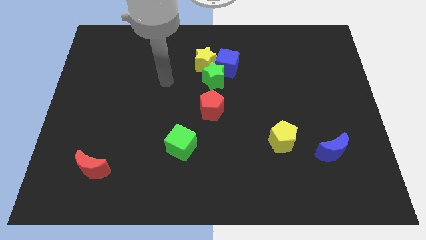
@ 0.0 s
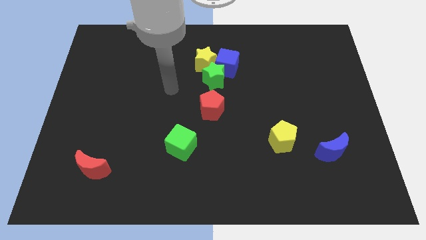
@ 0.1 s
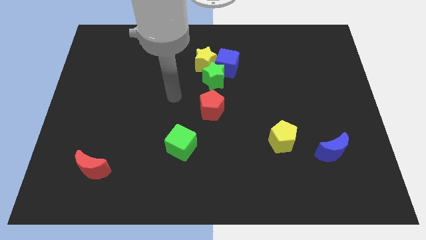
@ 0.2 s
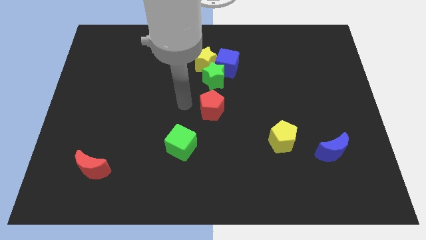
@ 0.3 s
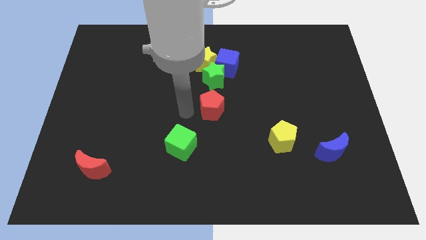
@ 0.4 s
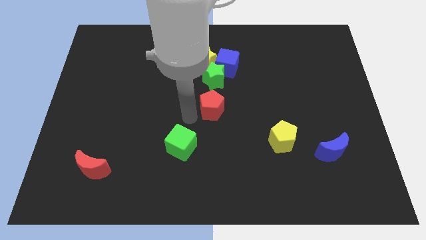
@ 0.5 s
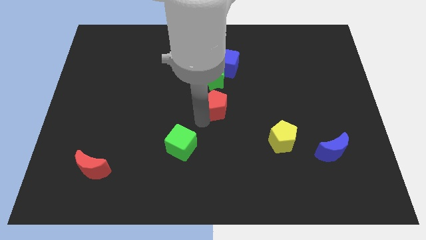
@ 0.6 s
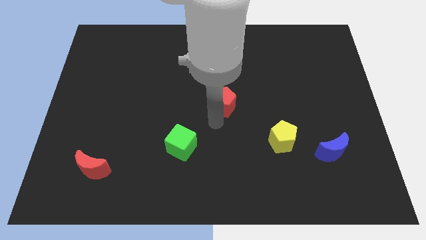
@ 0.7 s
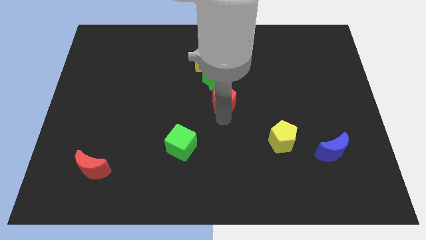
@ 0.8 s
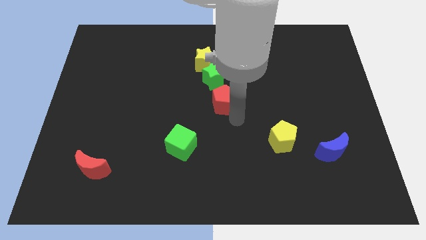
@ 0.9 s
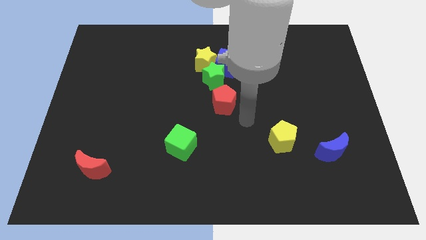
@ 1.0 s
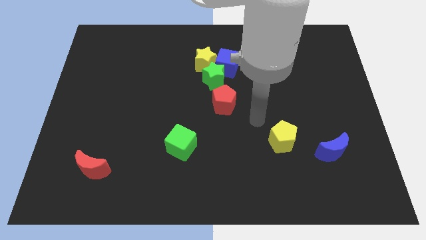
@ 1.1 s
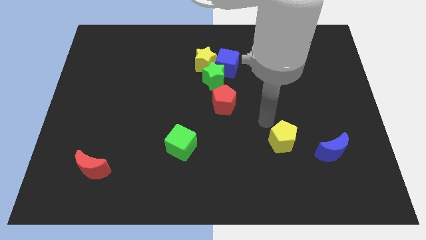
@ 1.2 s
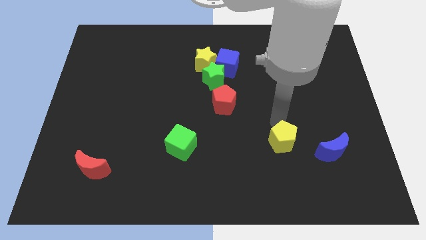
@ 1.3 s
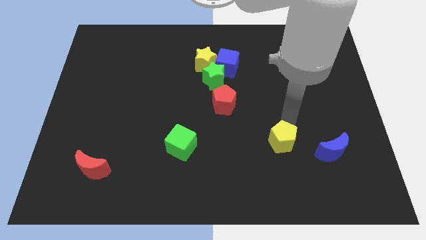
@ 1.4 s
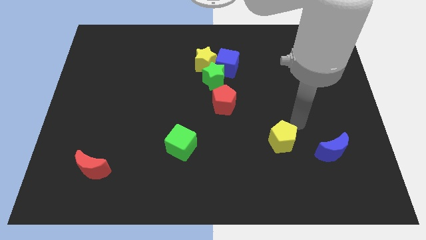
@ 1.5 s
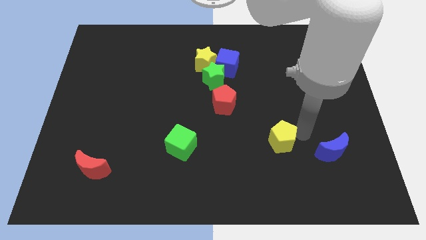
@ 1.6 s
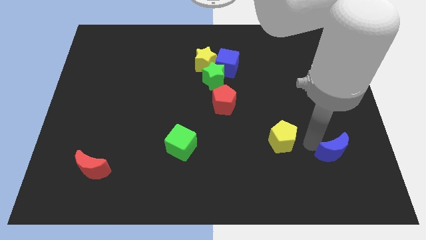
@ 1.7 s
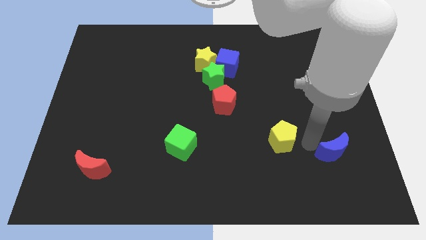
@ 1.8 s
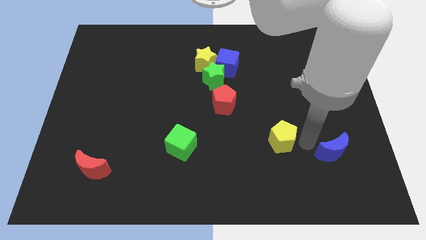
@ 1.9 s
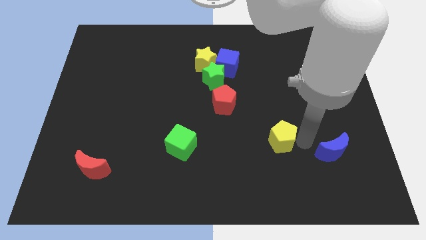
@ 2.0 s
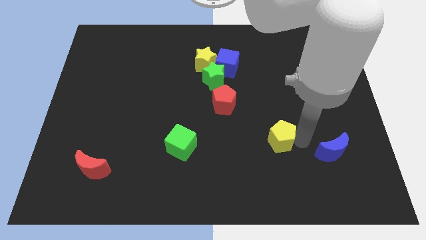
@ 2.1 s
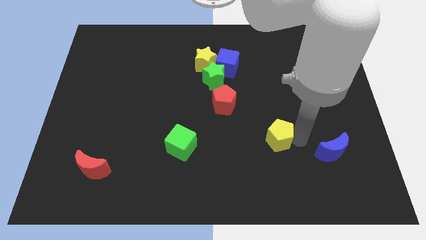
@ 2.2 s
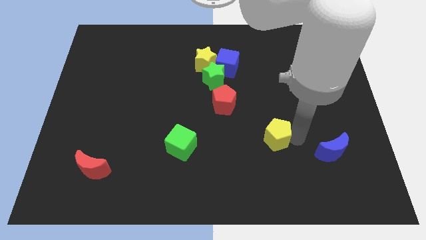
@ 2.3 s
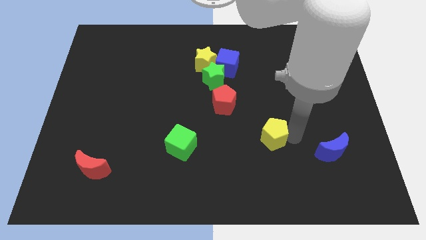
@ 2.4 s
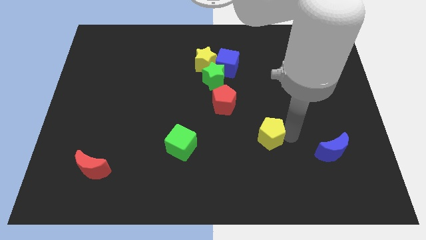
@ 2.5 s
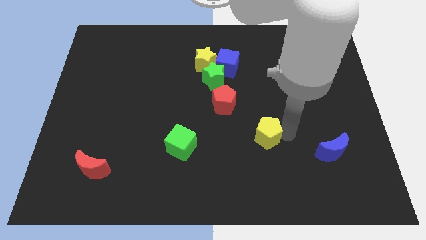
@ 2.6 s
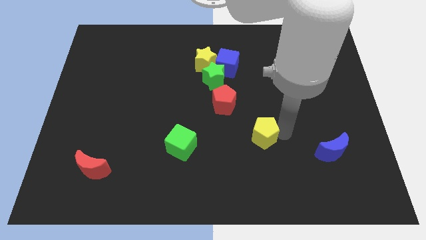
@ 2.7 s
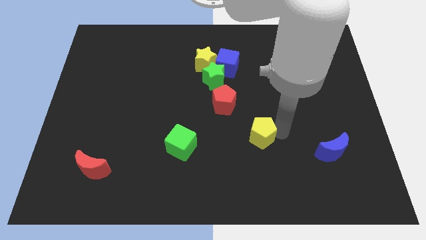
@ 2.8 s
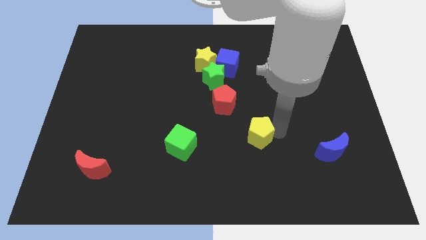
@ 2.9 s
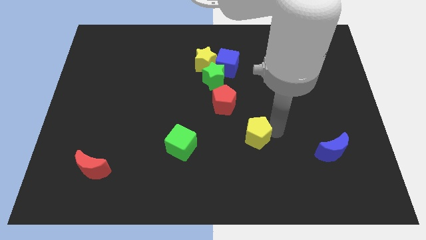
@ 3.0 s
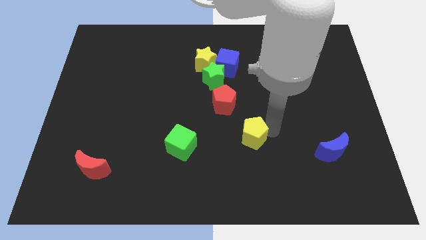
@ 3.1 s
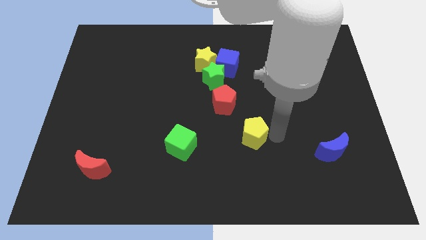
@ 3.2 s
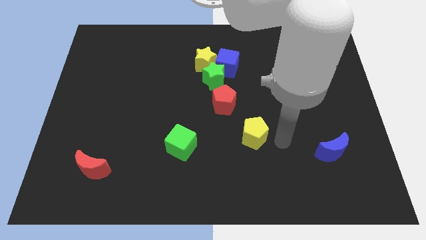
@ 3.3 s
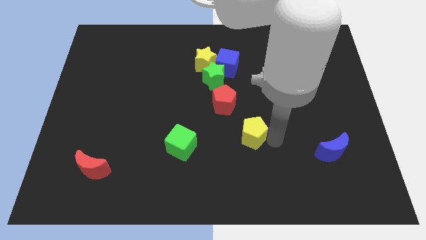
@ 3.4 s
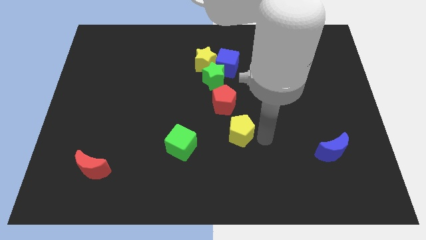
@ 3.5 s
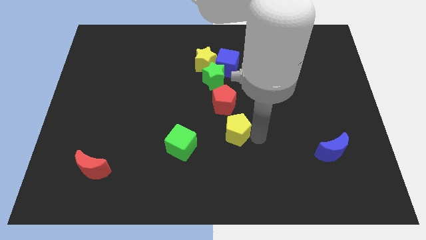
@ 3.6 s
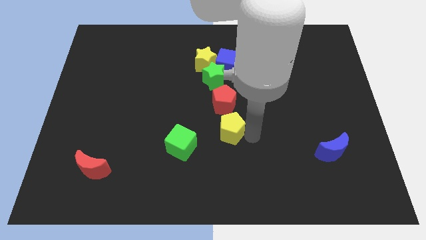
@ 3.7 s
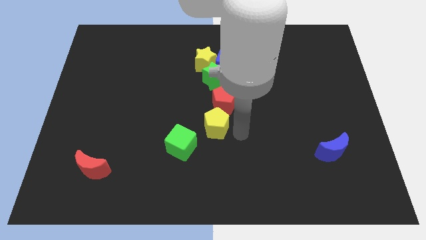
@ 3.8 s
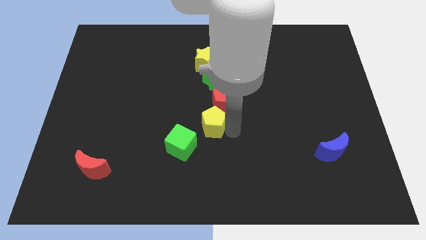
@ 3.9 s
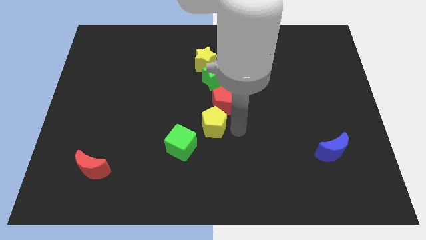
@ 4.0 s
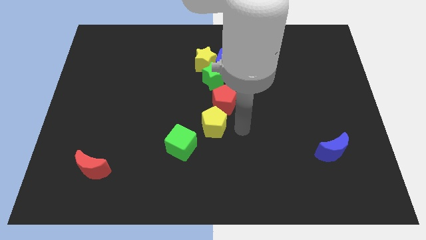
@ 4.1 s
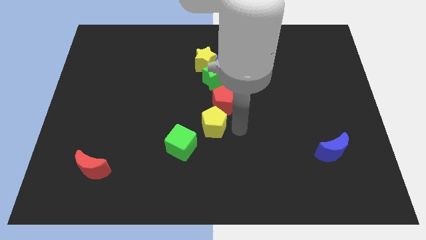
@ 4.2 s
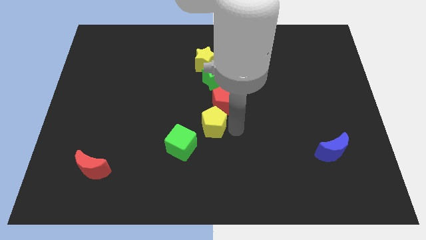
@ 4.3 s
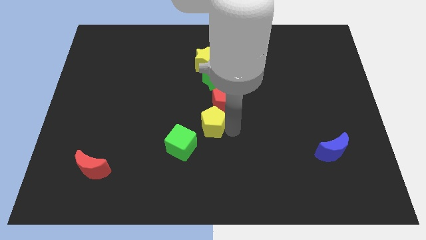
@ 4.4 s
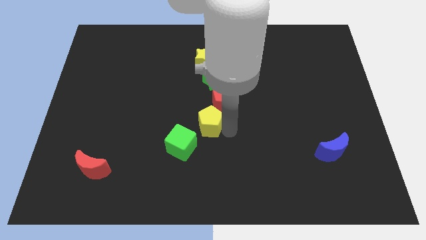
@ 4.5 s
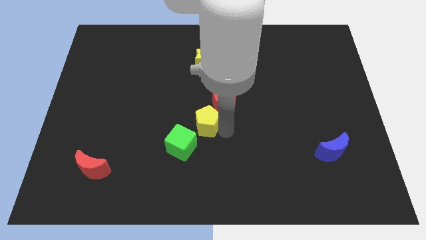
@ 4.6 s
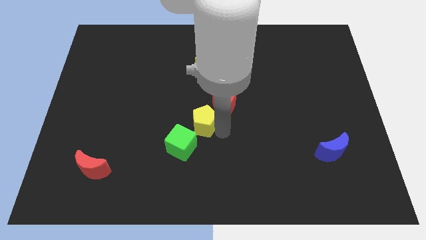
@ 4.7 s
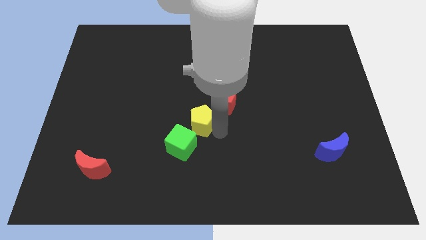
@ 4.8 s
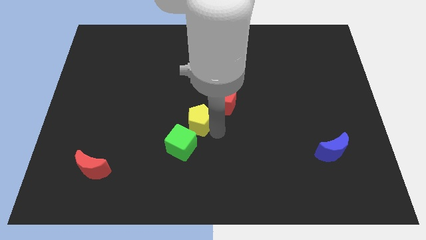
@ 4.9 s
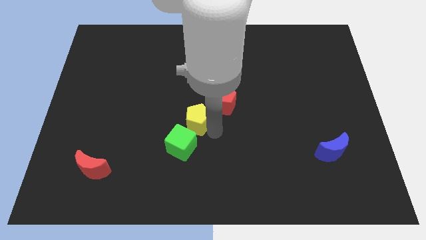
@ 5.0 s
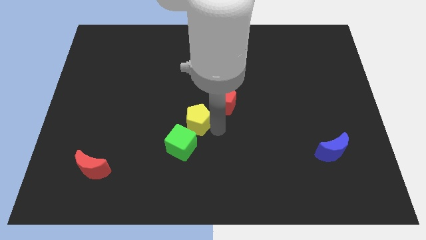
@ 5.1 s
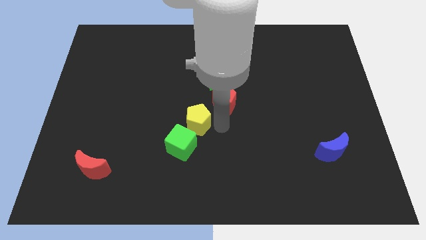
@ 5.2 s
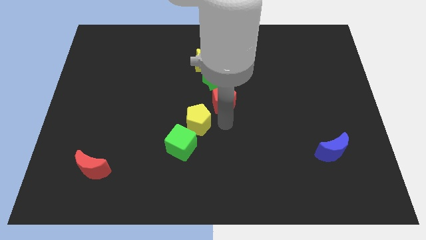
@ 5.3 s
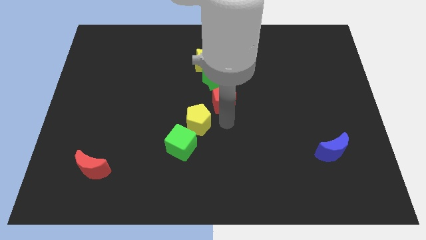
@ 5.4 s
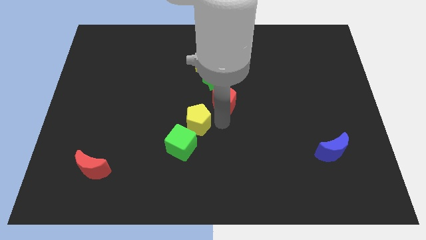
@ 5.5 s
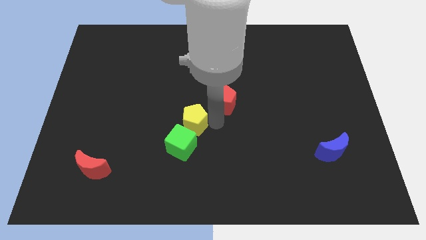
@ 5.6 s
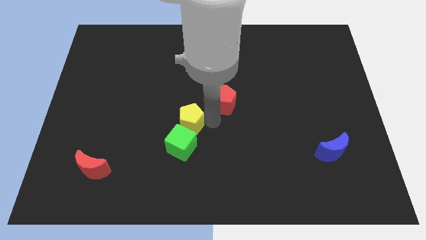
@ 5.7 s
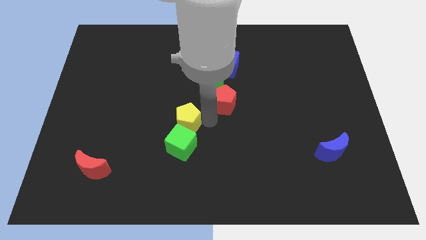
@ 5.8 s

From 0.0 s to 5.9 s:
move the yellow pentagon left

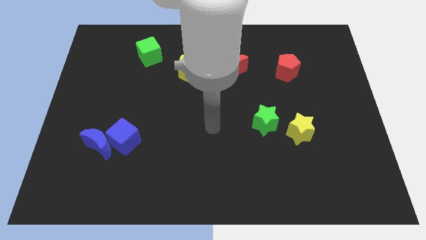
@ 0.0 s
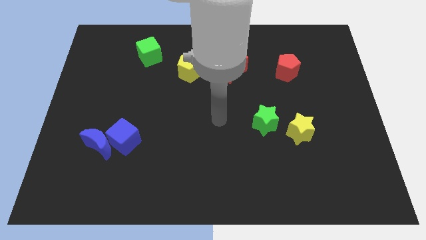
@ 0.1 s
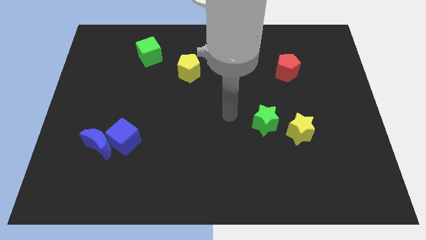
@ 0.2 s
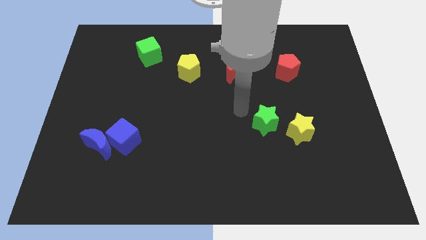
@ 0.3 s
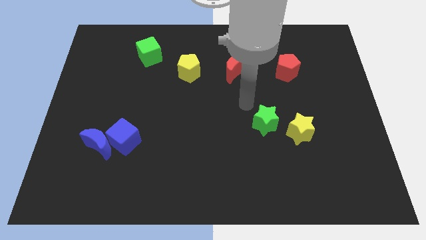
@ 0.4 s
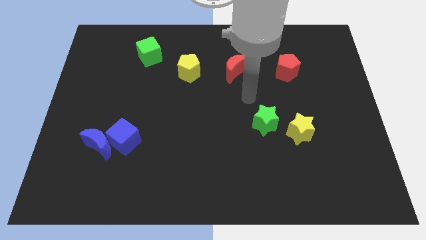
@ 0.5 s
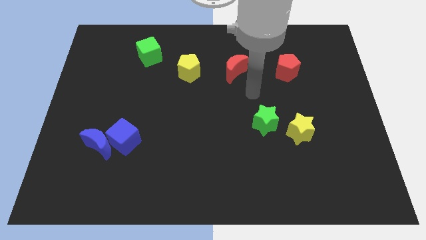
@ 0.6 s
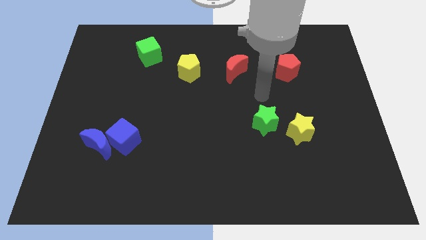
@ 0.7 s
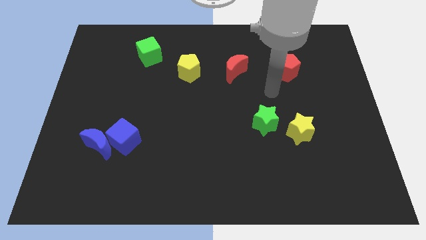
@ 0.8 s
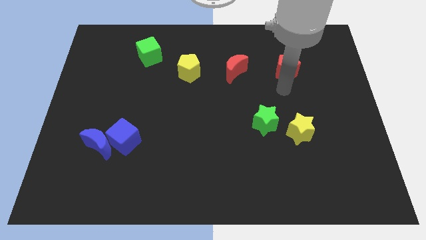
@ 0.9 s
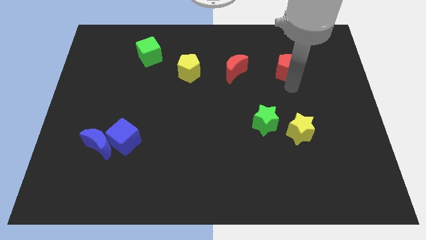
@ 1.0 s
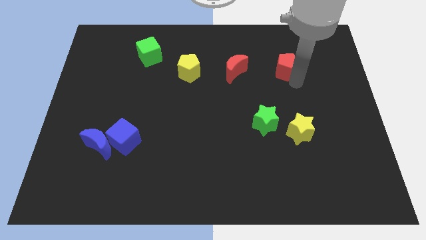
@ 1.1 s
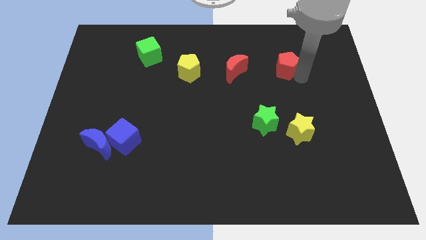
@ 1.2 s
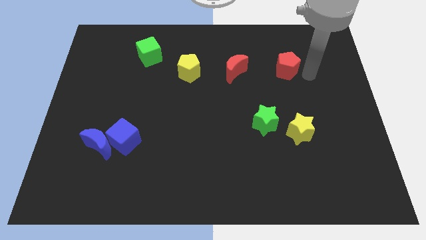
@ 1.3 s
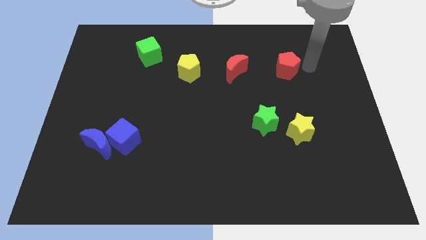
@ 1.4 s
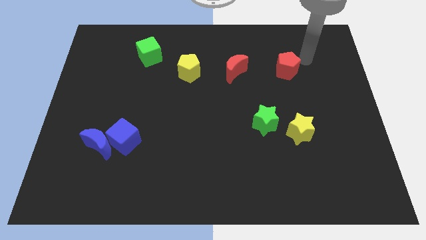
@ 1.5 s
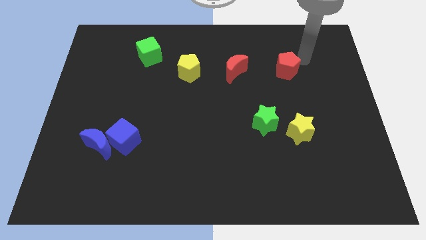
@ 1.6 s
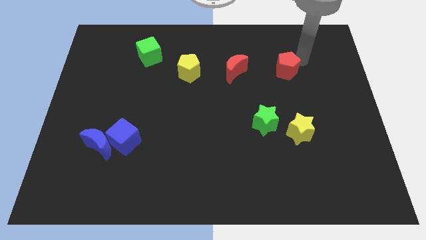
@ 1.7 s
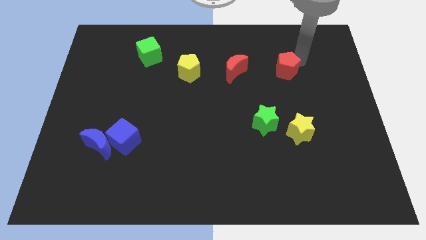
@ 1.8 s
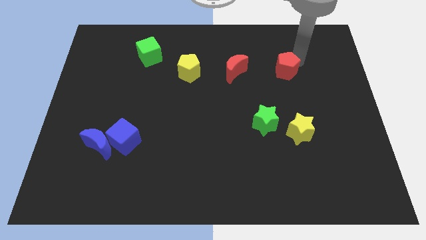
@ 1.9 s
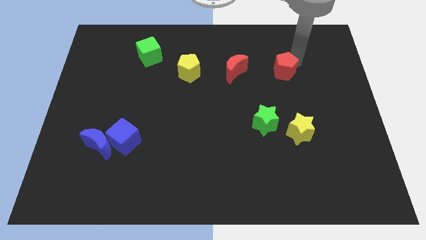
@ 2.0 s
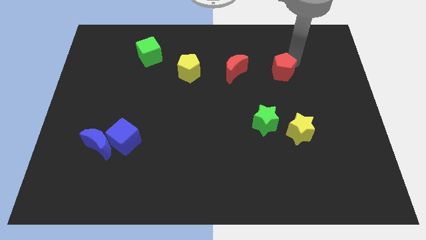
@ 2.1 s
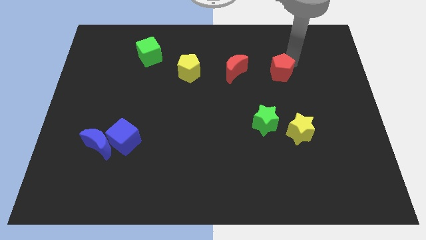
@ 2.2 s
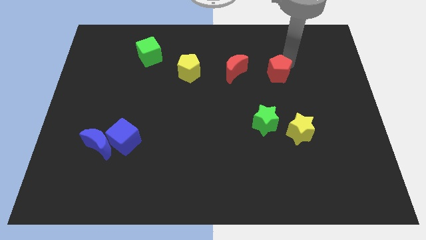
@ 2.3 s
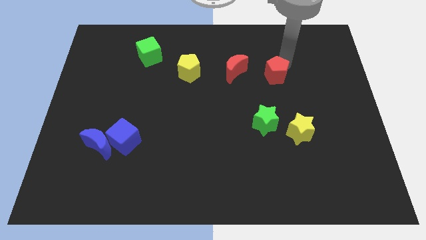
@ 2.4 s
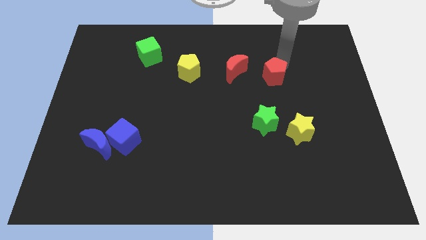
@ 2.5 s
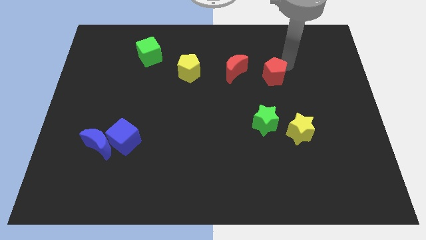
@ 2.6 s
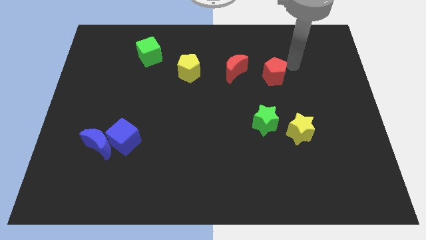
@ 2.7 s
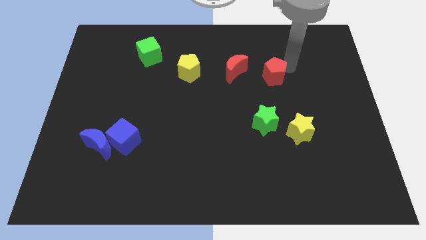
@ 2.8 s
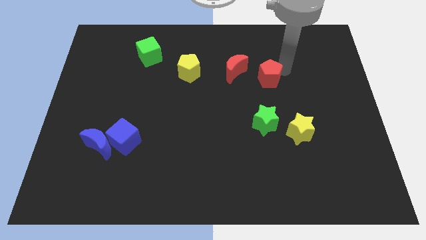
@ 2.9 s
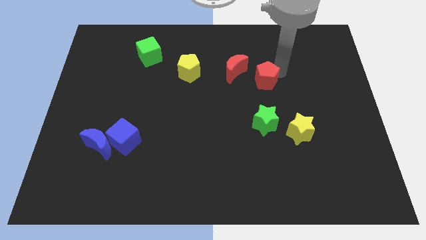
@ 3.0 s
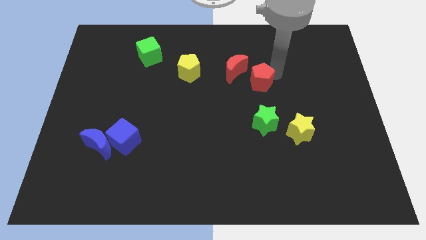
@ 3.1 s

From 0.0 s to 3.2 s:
slightly push the red pentagon downwards and then to the left
